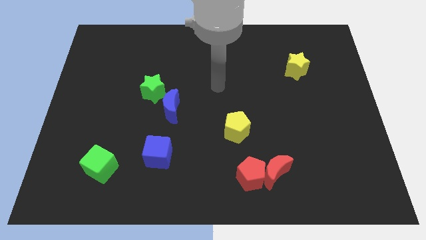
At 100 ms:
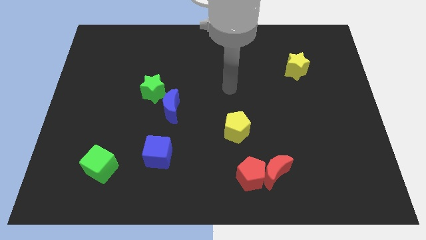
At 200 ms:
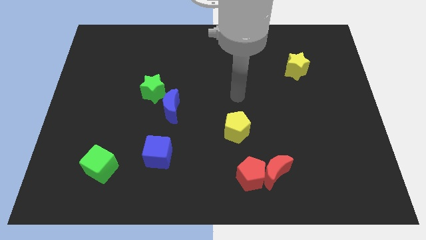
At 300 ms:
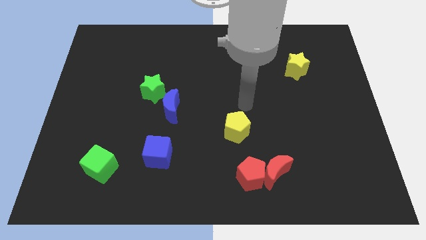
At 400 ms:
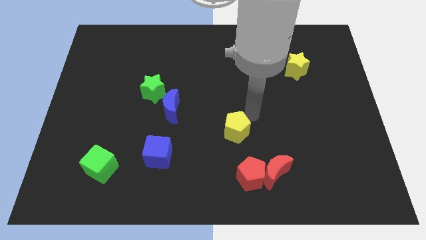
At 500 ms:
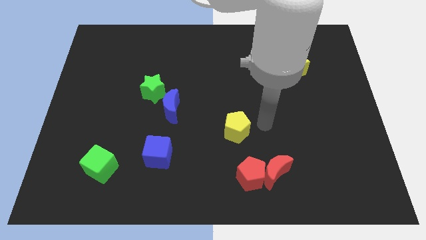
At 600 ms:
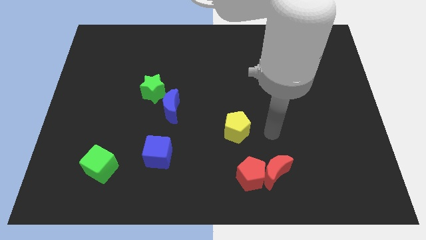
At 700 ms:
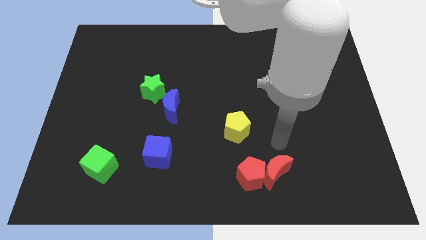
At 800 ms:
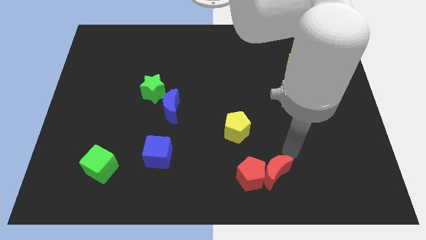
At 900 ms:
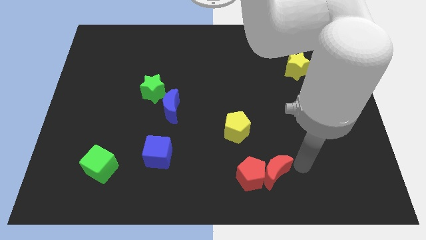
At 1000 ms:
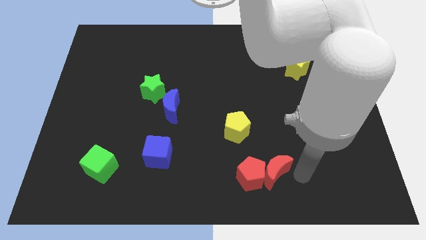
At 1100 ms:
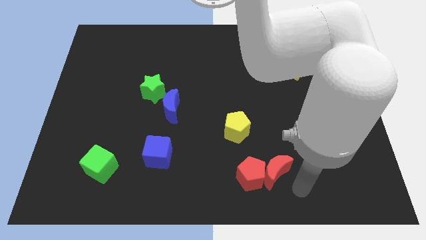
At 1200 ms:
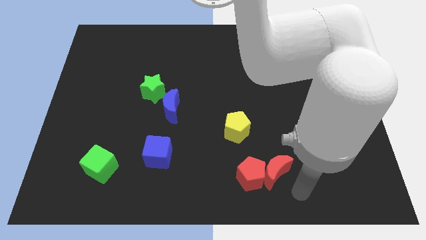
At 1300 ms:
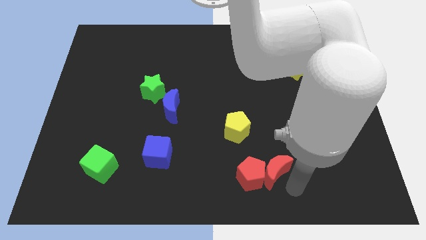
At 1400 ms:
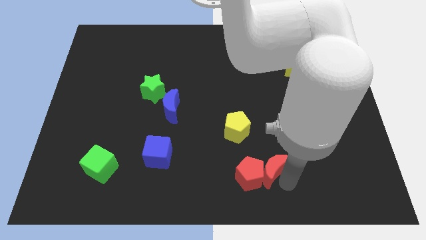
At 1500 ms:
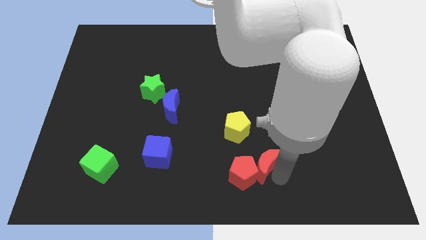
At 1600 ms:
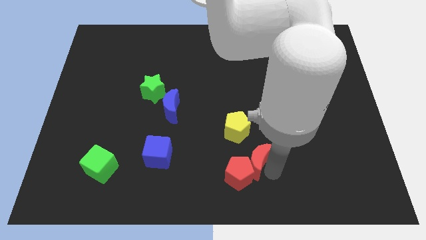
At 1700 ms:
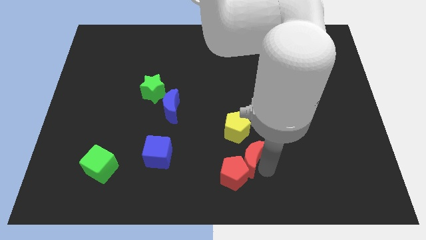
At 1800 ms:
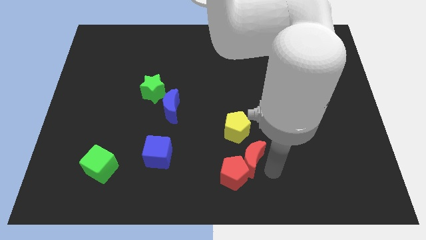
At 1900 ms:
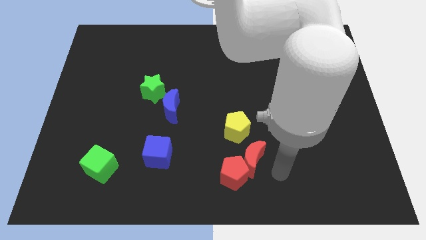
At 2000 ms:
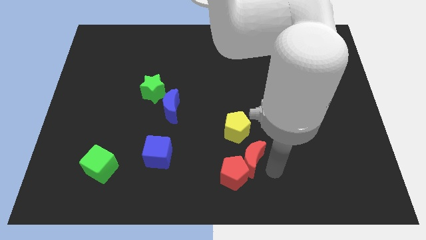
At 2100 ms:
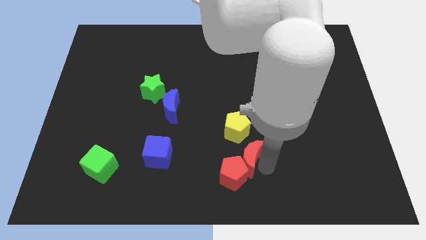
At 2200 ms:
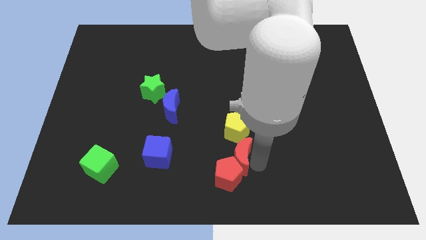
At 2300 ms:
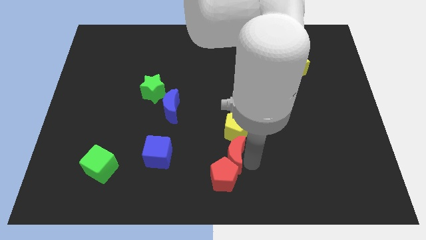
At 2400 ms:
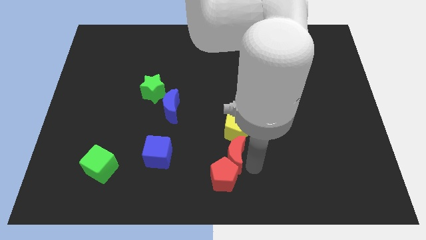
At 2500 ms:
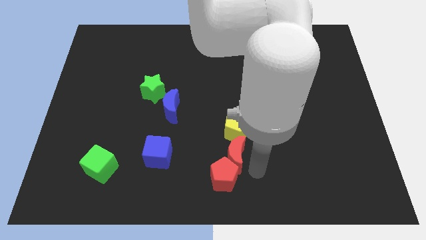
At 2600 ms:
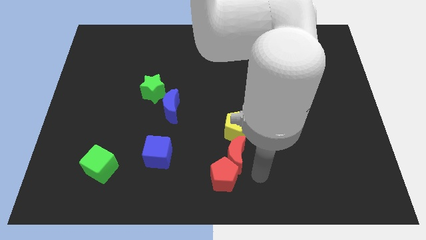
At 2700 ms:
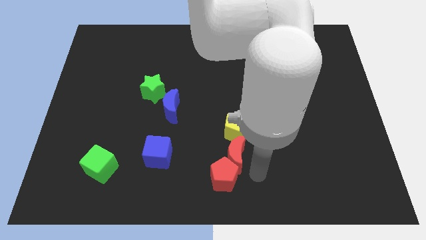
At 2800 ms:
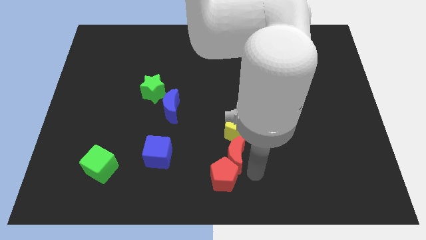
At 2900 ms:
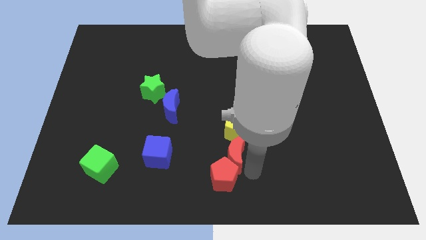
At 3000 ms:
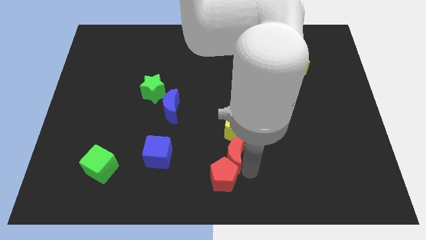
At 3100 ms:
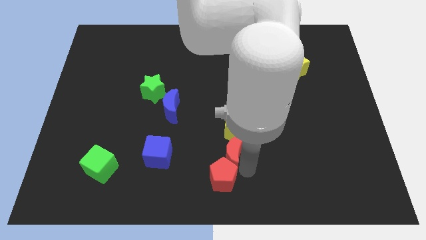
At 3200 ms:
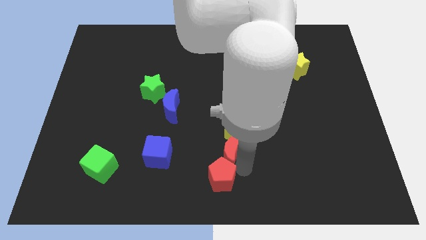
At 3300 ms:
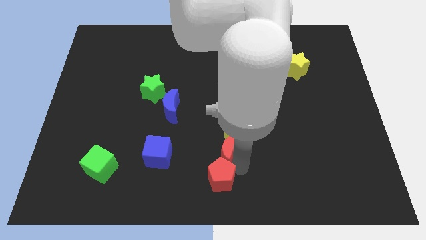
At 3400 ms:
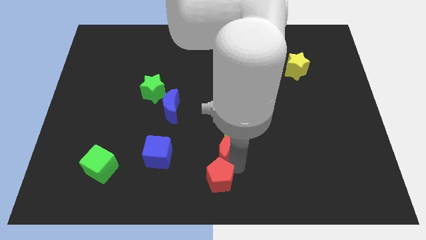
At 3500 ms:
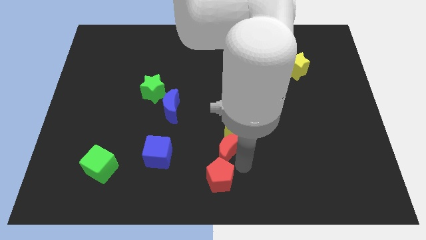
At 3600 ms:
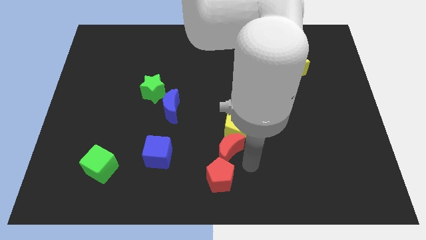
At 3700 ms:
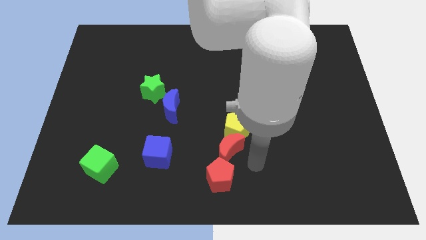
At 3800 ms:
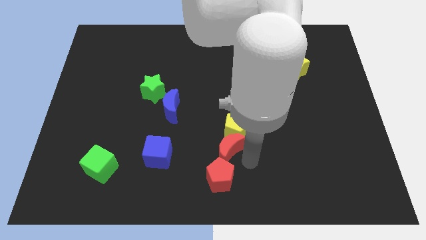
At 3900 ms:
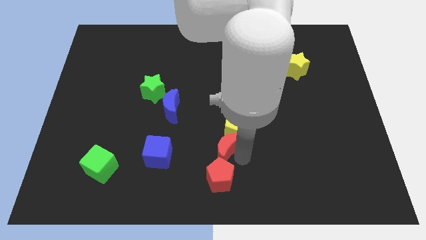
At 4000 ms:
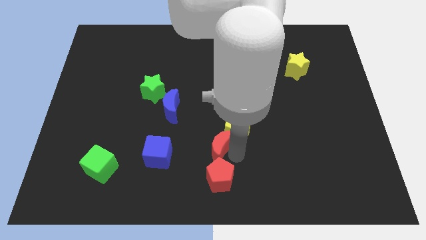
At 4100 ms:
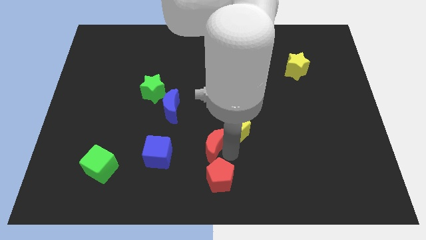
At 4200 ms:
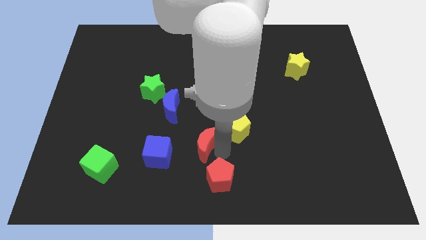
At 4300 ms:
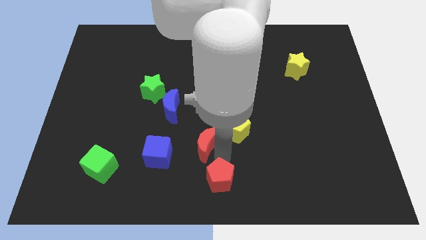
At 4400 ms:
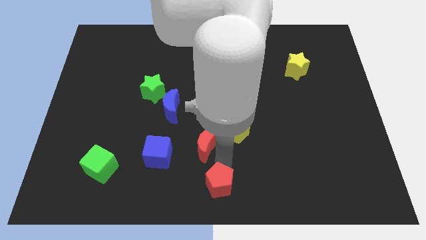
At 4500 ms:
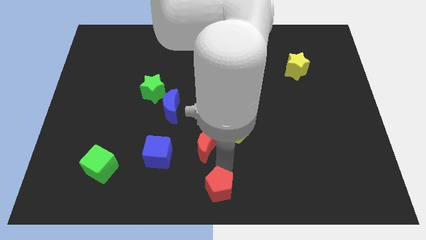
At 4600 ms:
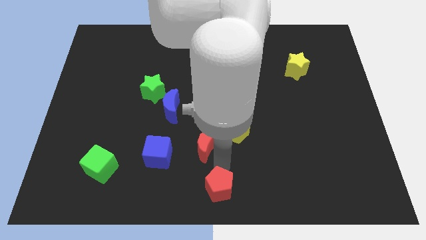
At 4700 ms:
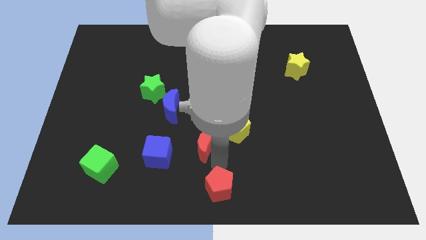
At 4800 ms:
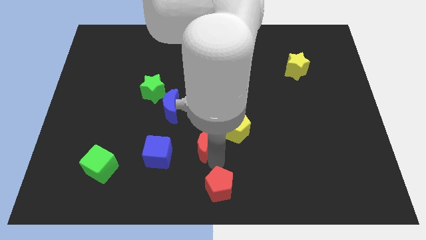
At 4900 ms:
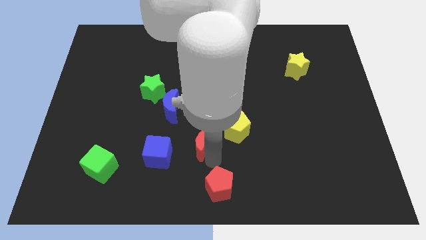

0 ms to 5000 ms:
move the red moon to the bottom right of the blue moon

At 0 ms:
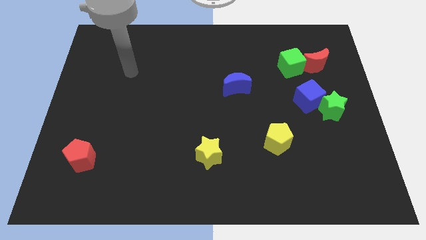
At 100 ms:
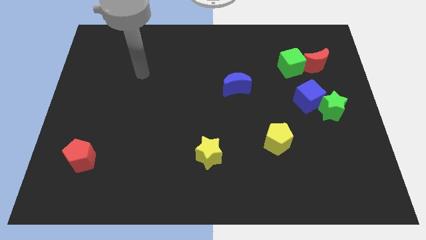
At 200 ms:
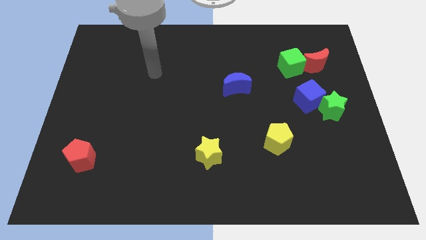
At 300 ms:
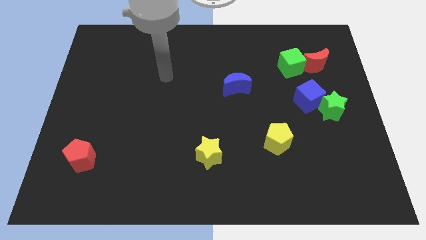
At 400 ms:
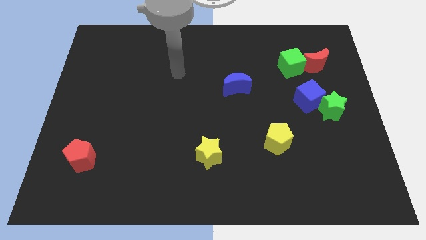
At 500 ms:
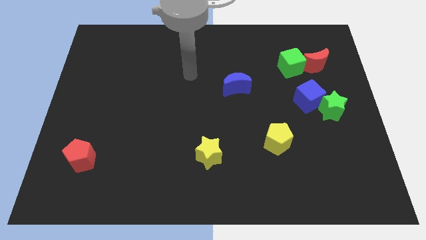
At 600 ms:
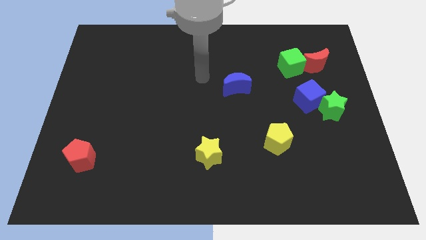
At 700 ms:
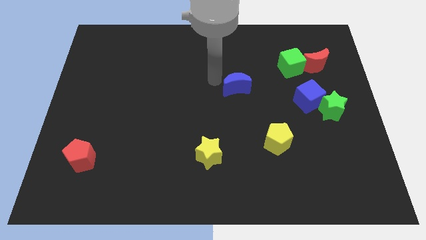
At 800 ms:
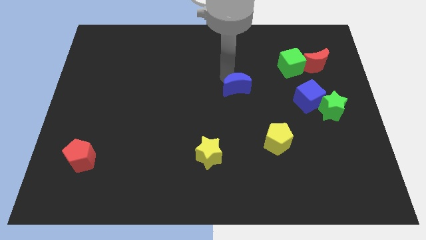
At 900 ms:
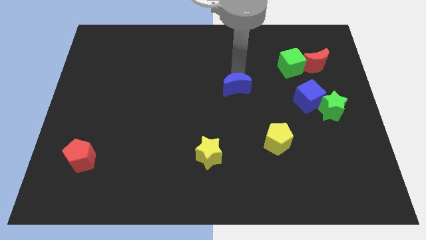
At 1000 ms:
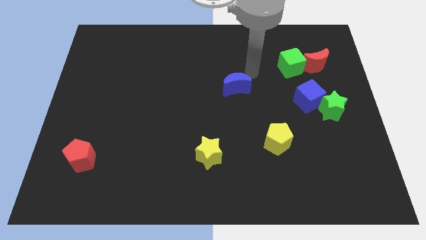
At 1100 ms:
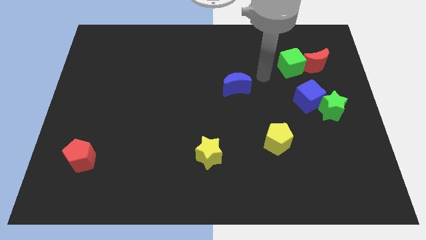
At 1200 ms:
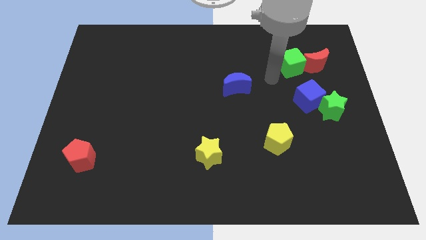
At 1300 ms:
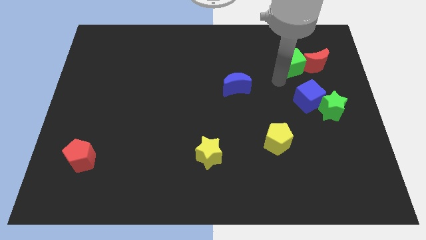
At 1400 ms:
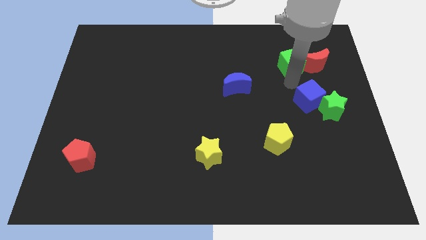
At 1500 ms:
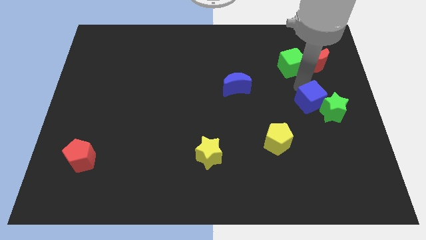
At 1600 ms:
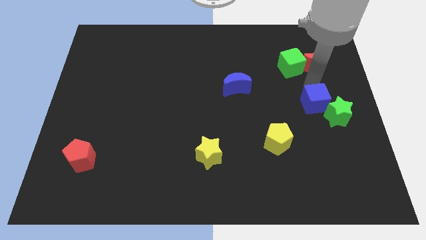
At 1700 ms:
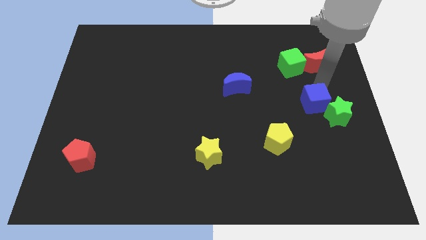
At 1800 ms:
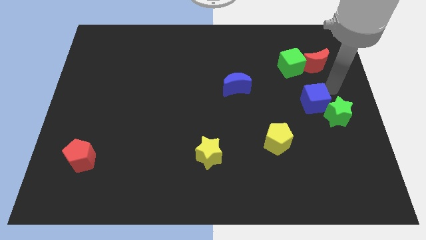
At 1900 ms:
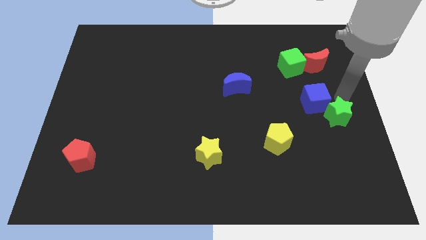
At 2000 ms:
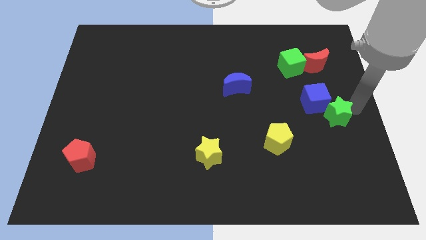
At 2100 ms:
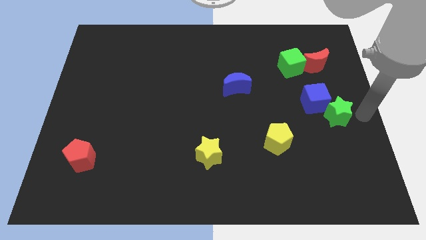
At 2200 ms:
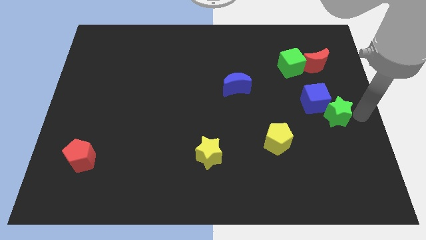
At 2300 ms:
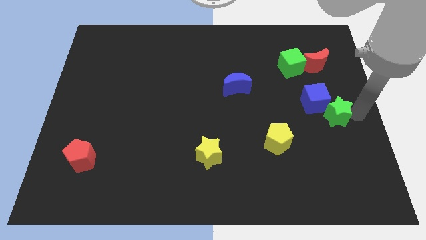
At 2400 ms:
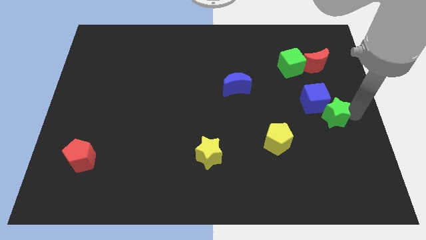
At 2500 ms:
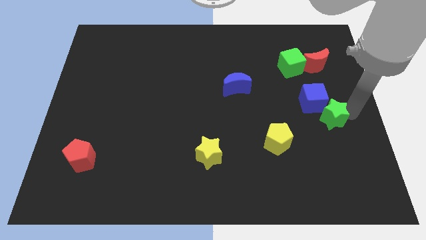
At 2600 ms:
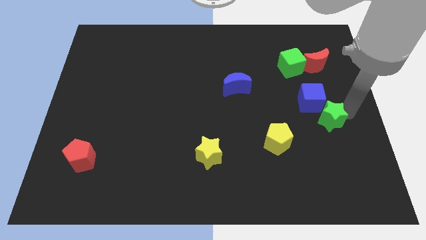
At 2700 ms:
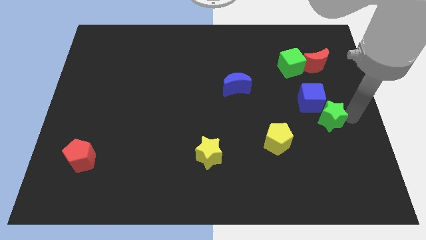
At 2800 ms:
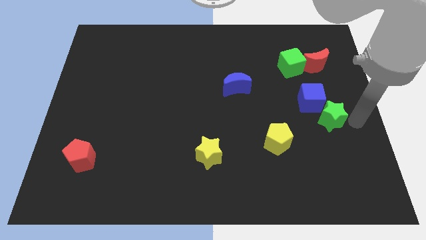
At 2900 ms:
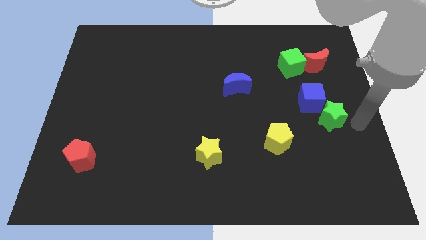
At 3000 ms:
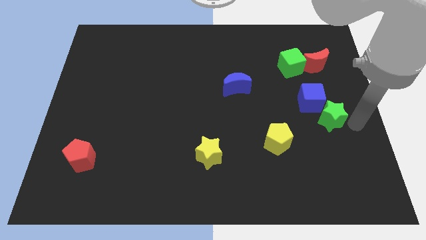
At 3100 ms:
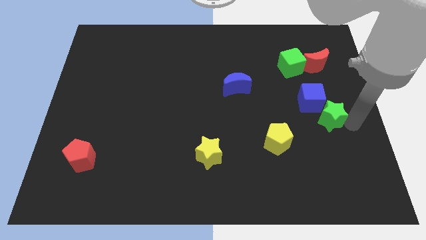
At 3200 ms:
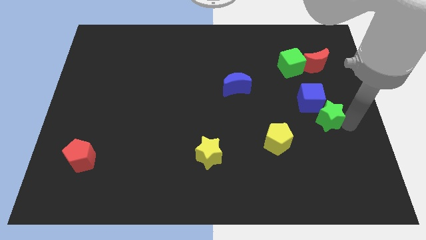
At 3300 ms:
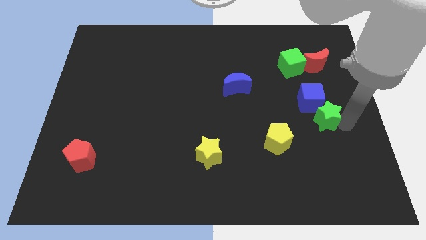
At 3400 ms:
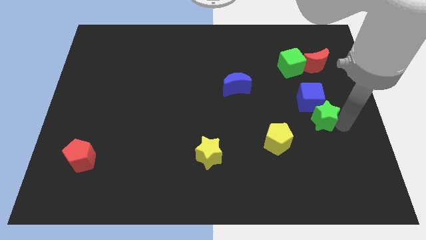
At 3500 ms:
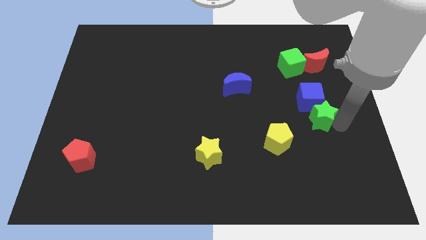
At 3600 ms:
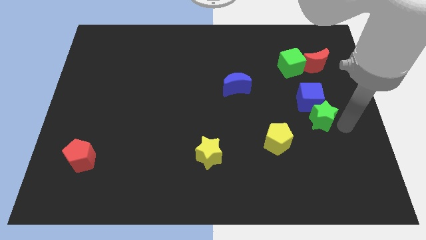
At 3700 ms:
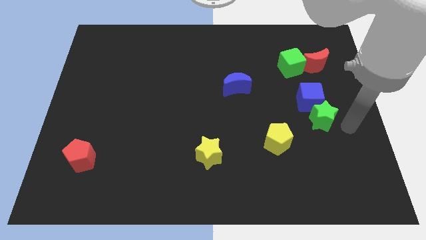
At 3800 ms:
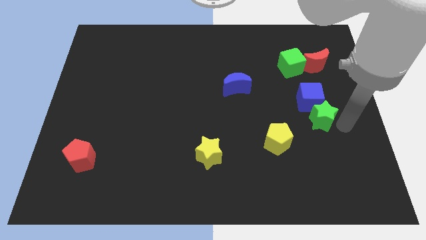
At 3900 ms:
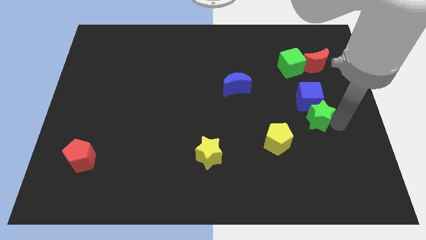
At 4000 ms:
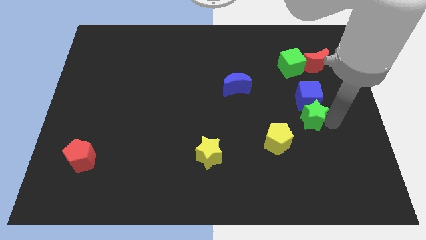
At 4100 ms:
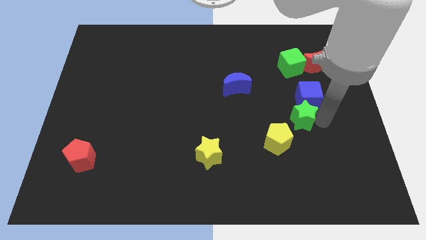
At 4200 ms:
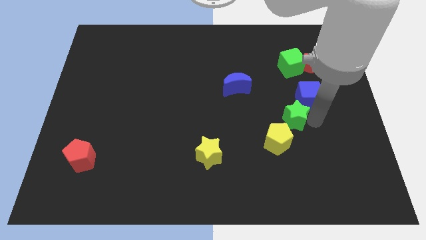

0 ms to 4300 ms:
push the green star to the top side of the yellow pentagon
